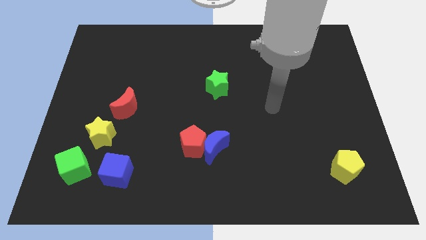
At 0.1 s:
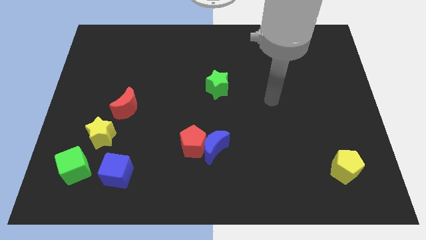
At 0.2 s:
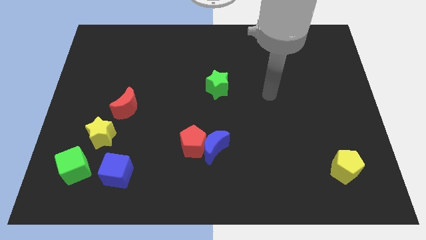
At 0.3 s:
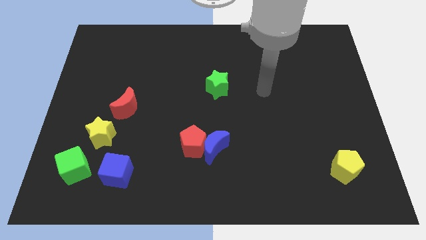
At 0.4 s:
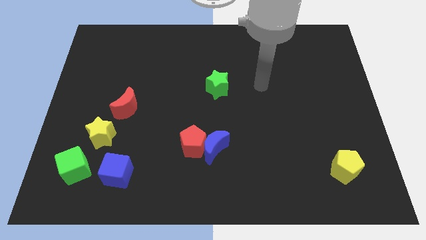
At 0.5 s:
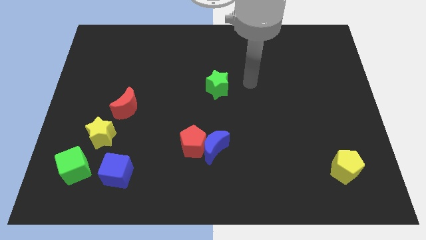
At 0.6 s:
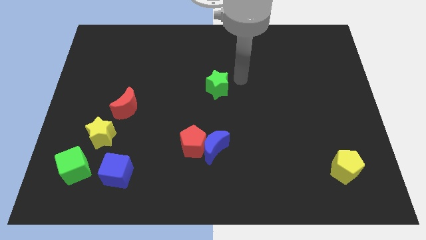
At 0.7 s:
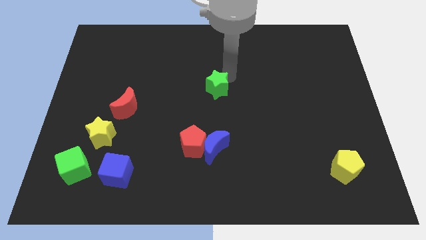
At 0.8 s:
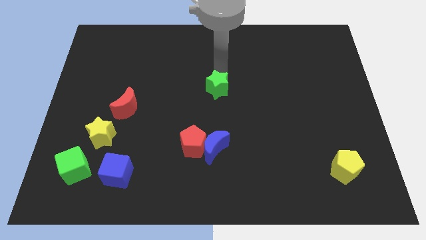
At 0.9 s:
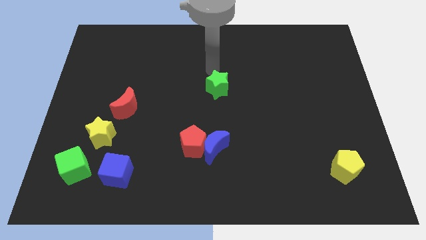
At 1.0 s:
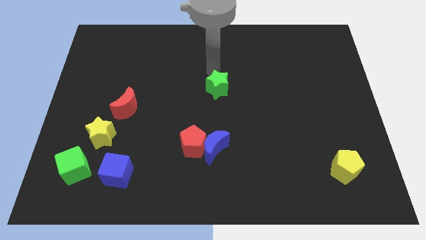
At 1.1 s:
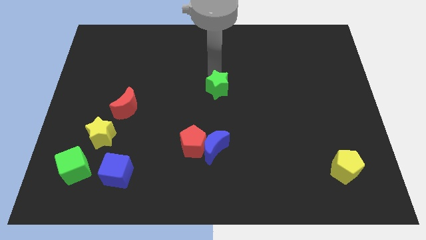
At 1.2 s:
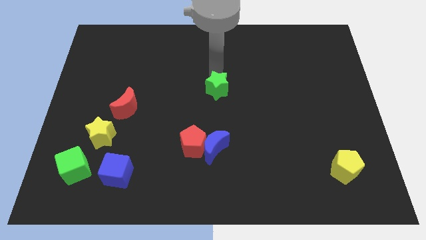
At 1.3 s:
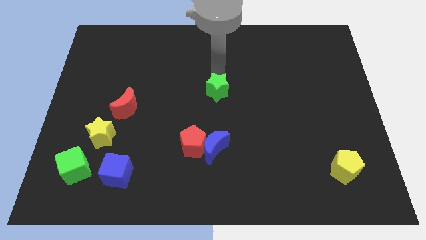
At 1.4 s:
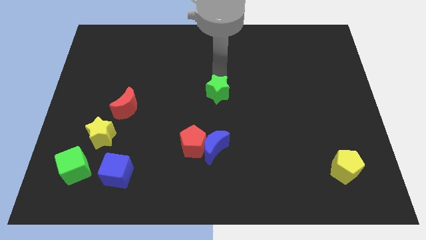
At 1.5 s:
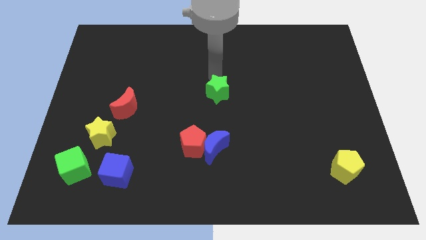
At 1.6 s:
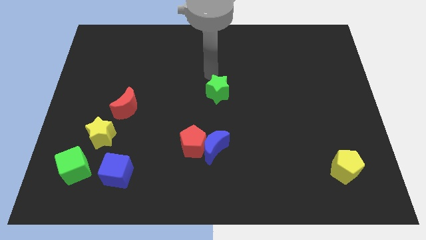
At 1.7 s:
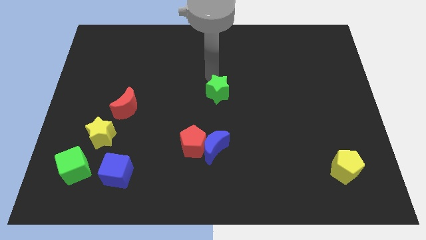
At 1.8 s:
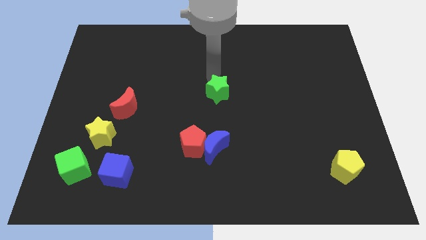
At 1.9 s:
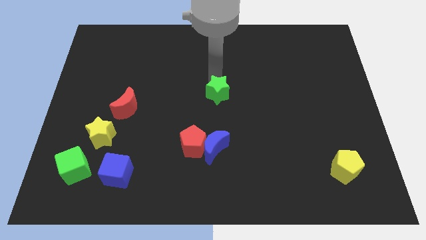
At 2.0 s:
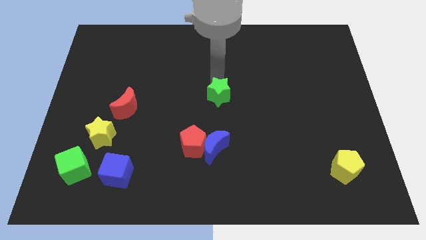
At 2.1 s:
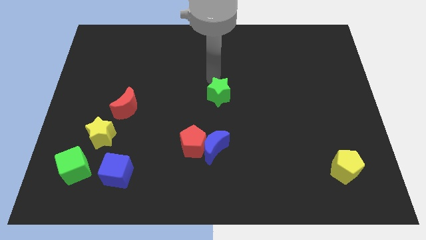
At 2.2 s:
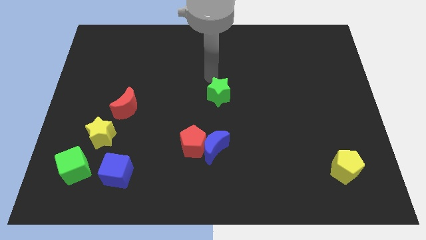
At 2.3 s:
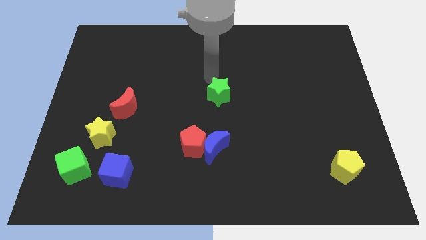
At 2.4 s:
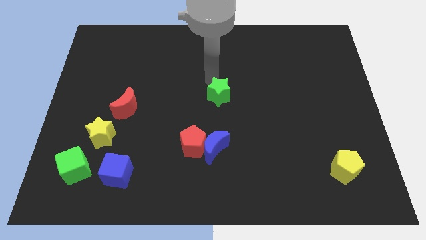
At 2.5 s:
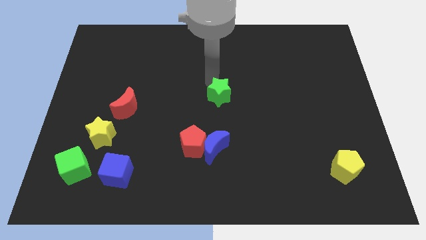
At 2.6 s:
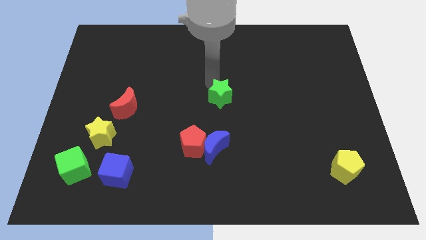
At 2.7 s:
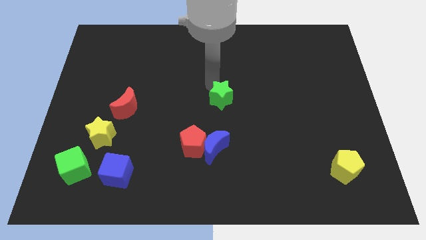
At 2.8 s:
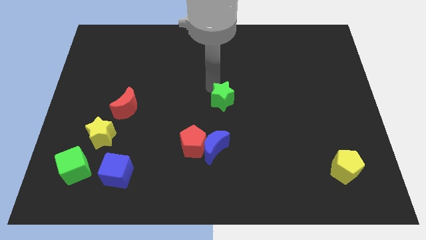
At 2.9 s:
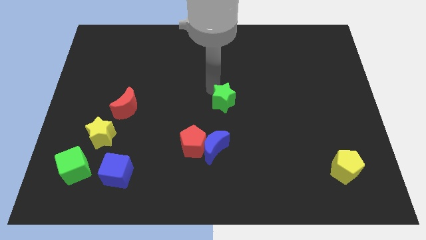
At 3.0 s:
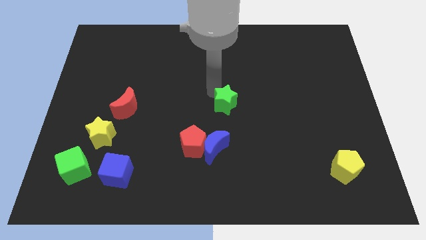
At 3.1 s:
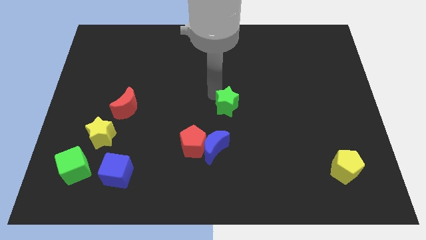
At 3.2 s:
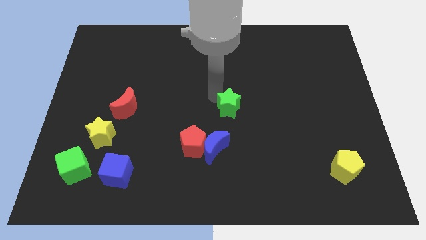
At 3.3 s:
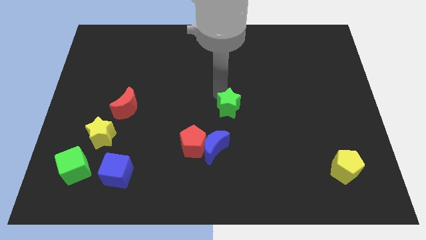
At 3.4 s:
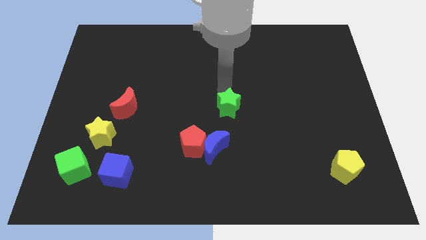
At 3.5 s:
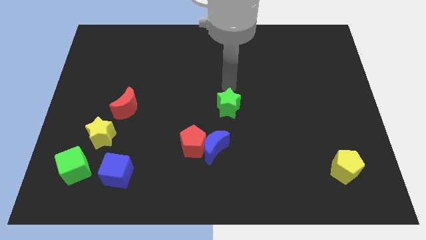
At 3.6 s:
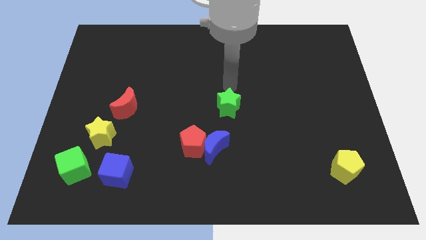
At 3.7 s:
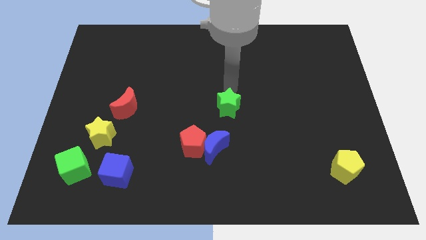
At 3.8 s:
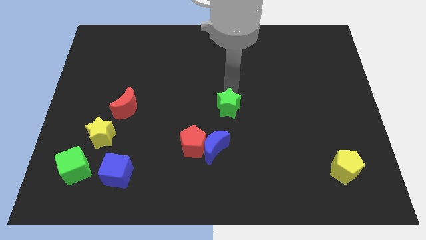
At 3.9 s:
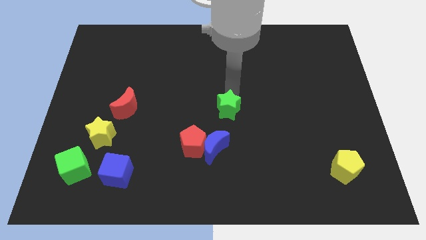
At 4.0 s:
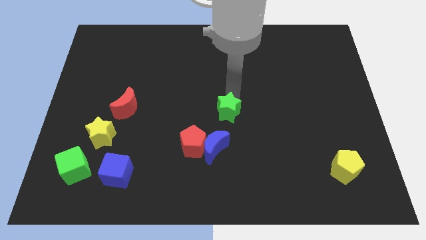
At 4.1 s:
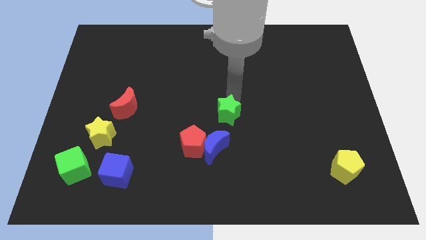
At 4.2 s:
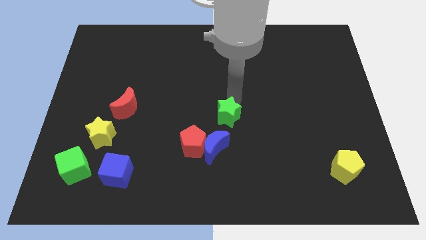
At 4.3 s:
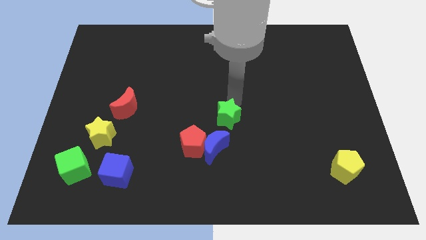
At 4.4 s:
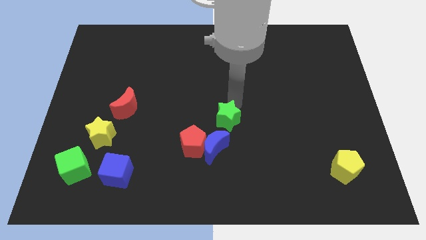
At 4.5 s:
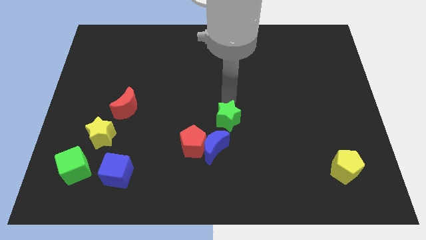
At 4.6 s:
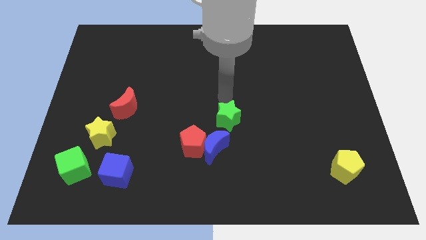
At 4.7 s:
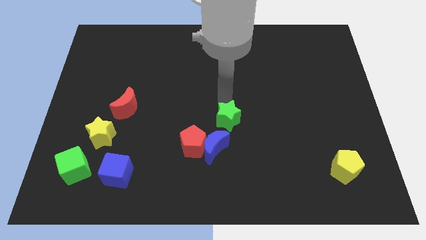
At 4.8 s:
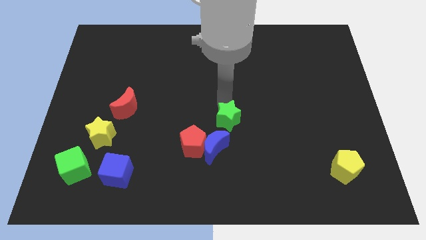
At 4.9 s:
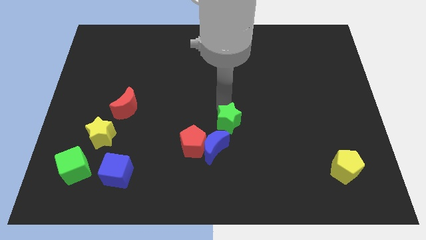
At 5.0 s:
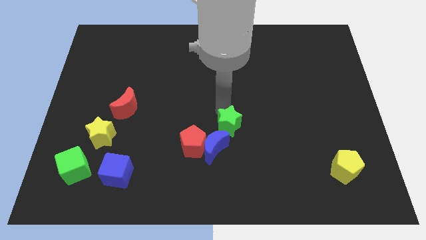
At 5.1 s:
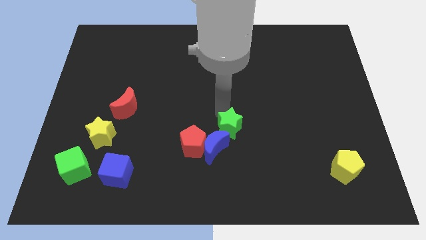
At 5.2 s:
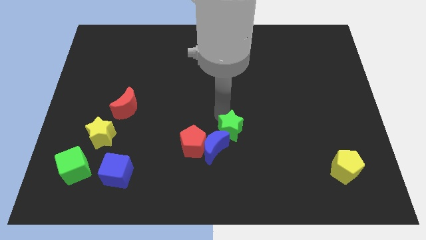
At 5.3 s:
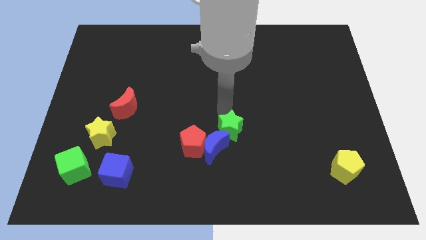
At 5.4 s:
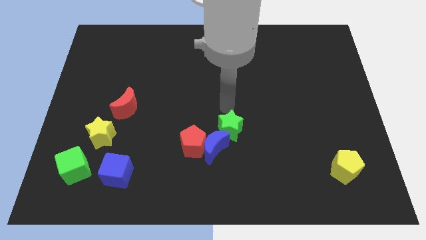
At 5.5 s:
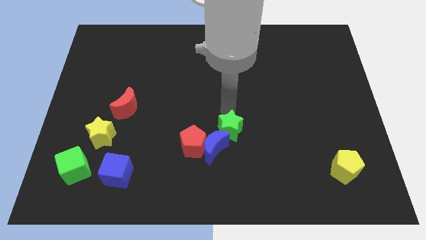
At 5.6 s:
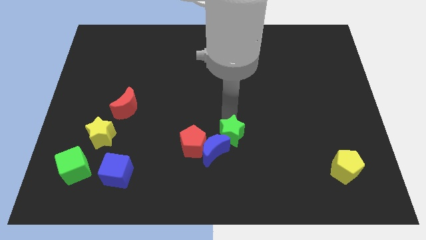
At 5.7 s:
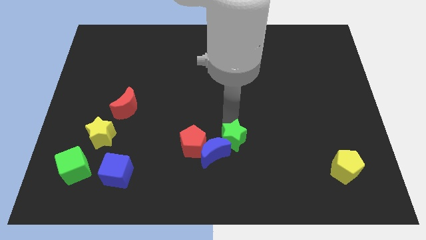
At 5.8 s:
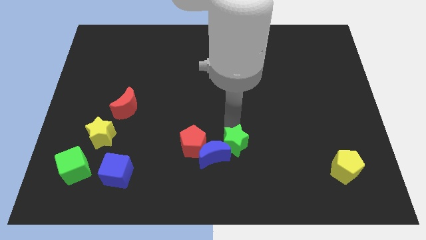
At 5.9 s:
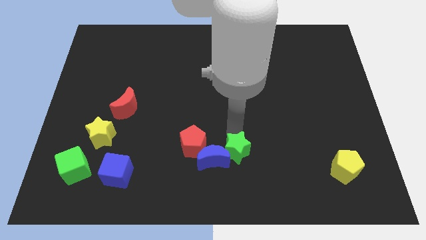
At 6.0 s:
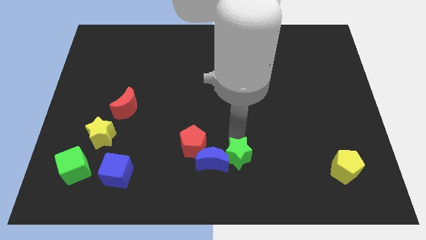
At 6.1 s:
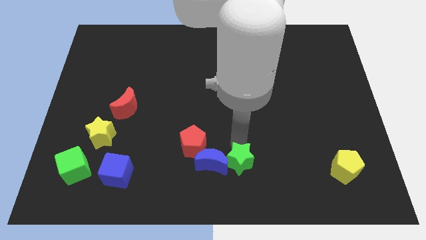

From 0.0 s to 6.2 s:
move the green star to the bottom side
